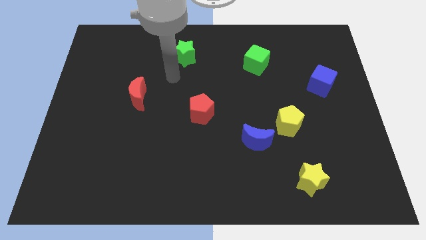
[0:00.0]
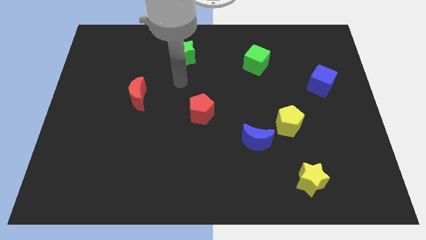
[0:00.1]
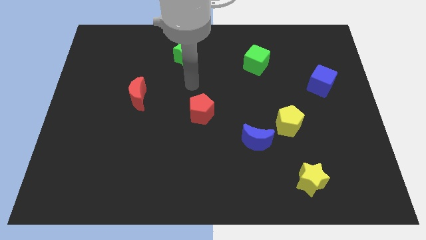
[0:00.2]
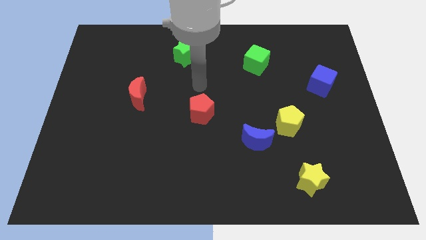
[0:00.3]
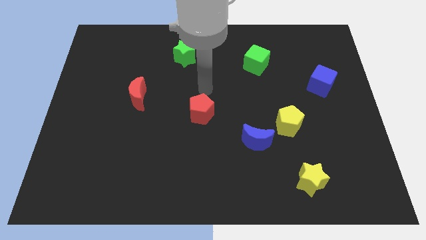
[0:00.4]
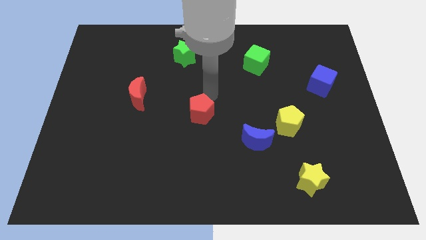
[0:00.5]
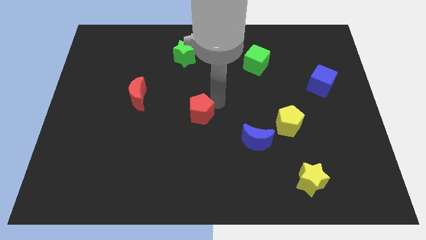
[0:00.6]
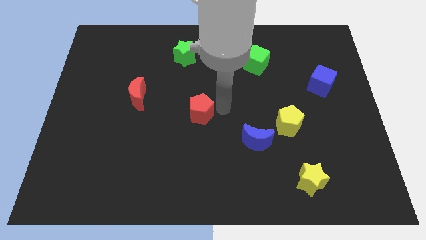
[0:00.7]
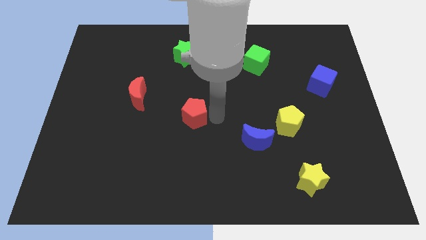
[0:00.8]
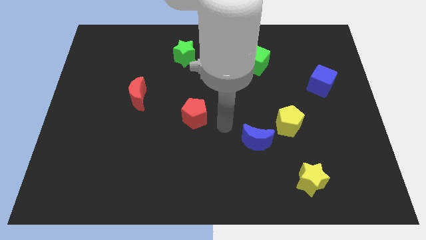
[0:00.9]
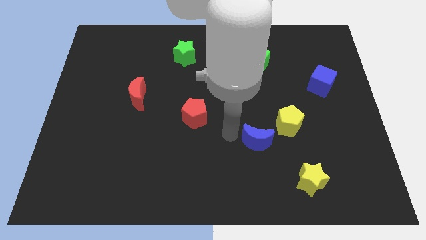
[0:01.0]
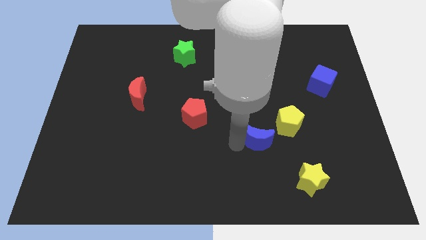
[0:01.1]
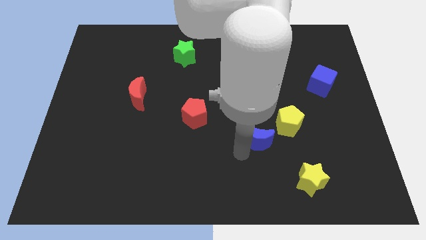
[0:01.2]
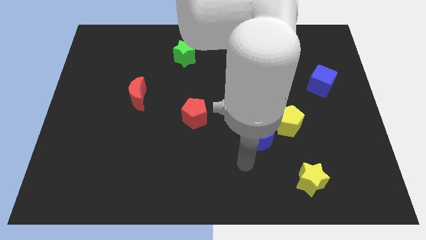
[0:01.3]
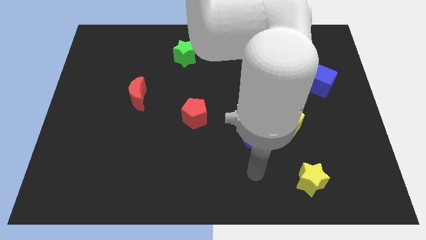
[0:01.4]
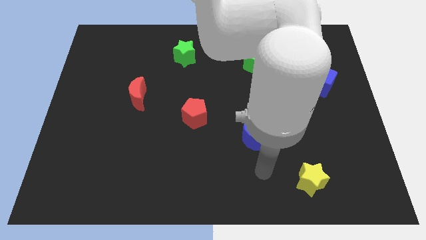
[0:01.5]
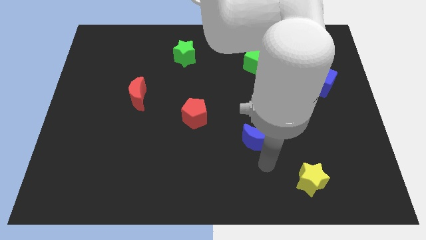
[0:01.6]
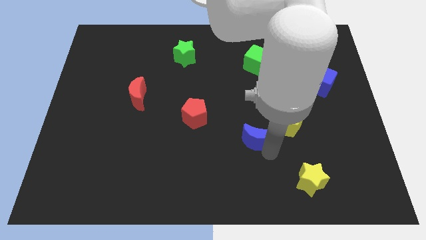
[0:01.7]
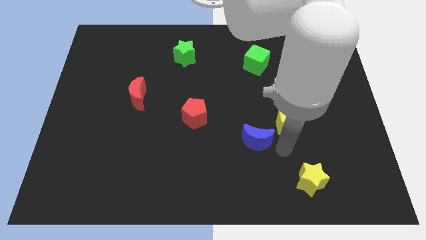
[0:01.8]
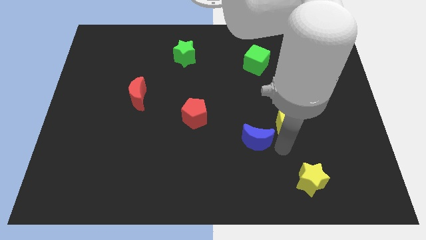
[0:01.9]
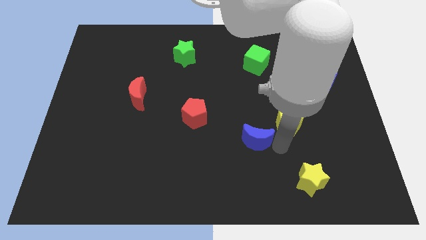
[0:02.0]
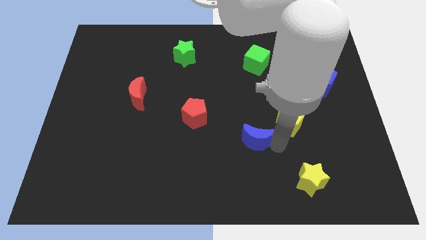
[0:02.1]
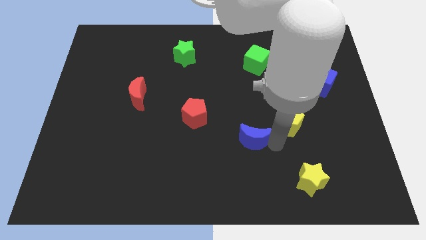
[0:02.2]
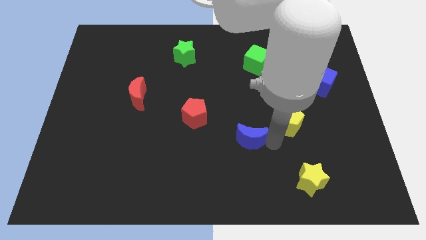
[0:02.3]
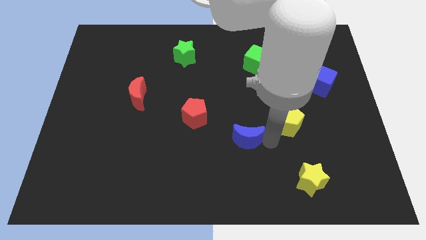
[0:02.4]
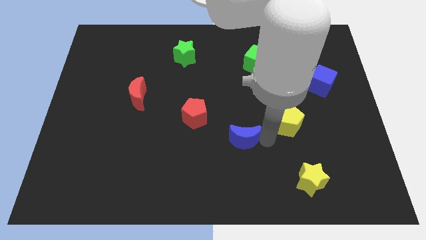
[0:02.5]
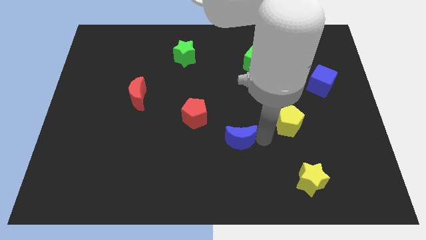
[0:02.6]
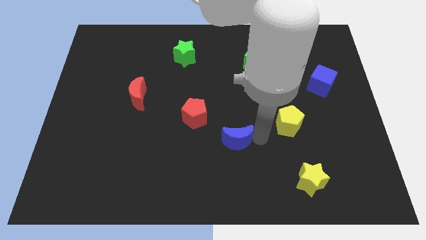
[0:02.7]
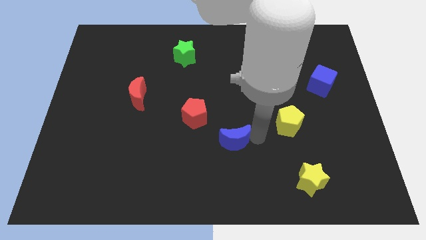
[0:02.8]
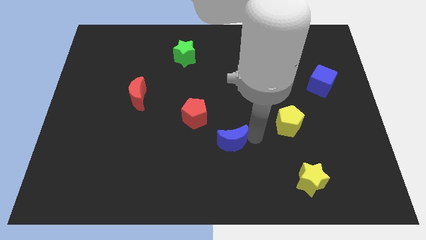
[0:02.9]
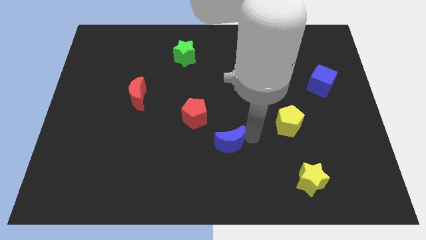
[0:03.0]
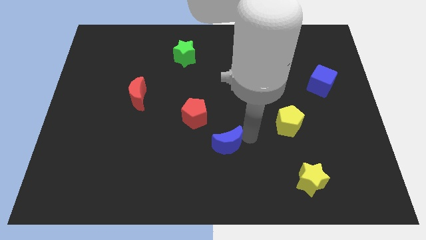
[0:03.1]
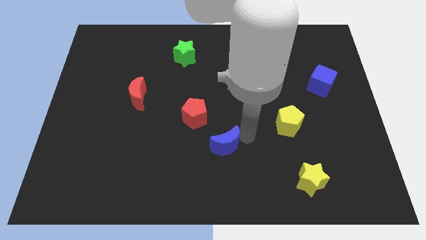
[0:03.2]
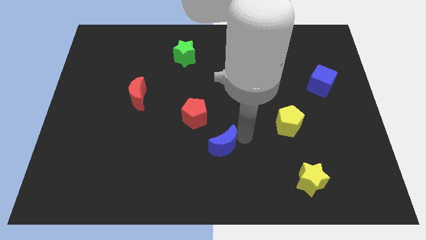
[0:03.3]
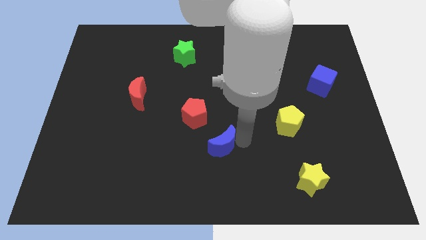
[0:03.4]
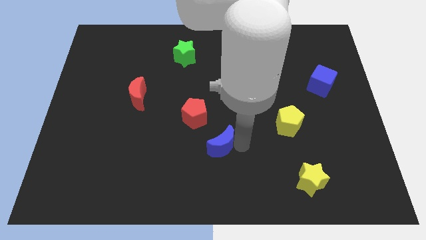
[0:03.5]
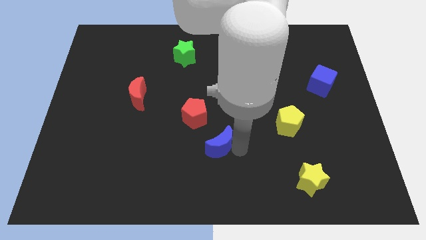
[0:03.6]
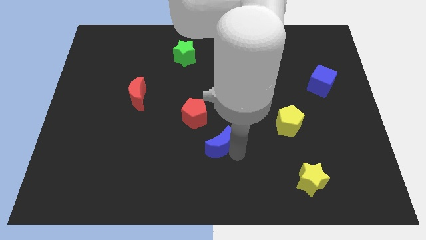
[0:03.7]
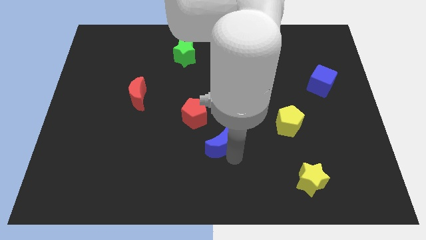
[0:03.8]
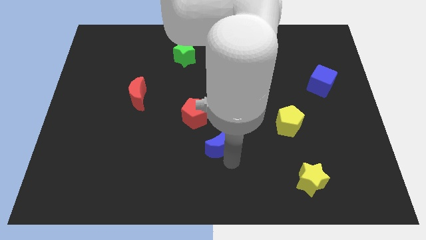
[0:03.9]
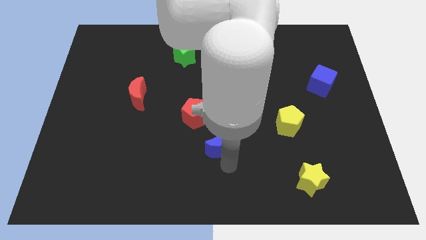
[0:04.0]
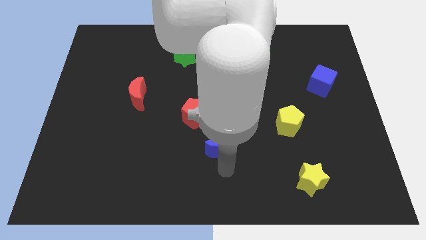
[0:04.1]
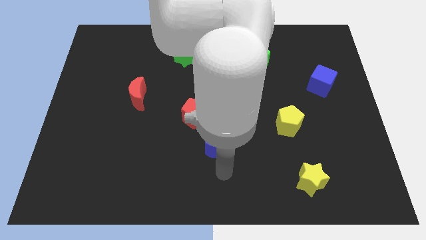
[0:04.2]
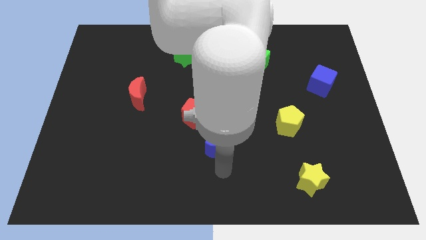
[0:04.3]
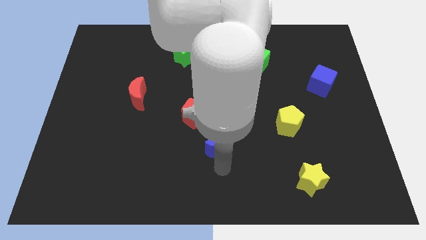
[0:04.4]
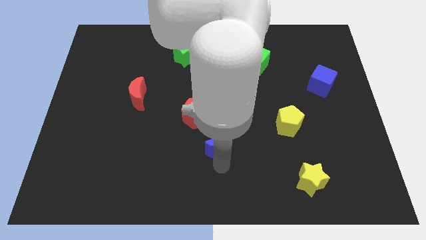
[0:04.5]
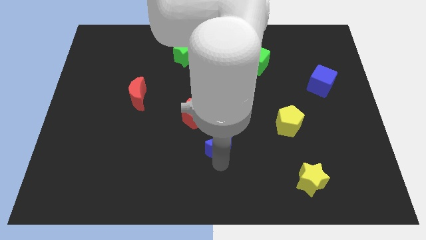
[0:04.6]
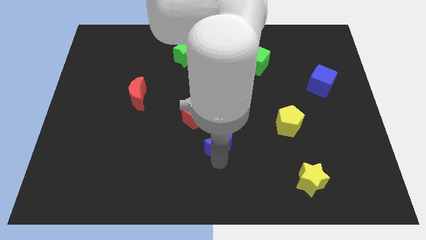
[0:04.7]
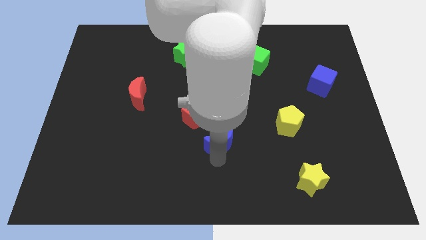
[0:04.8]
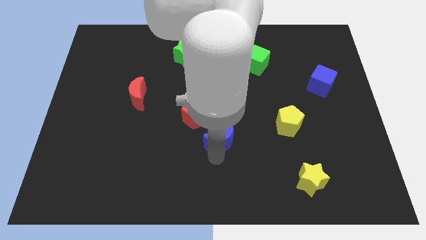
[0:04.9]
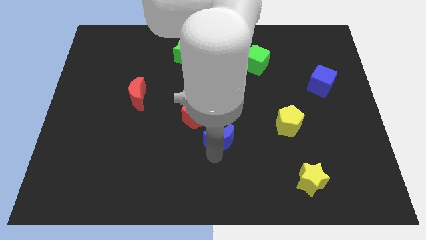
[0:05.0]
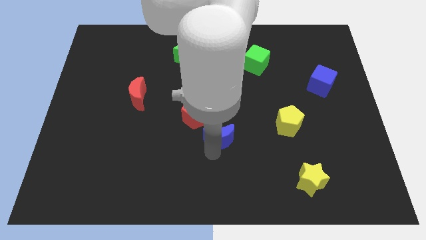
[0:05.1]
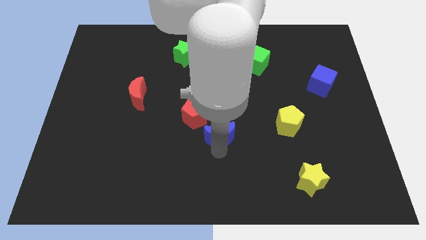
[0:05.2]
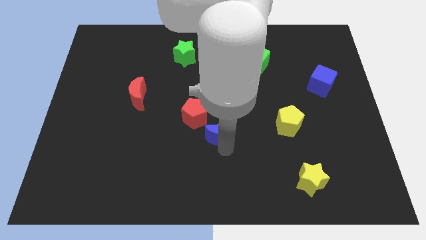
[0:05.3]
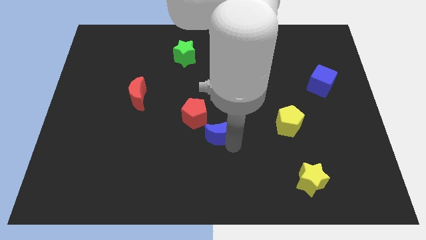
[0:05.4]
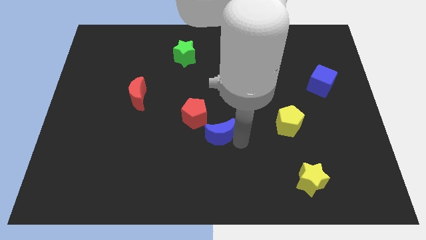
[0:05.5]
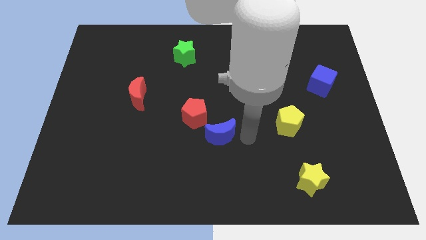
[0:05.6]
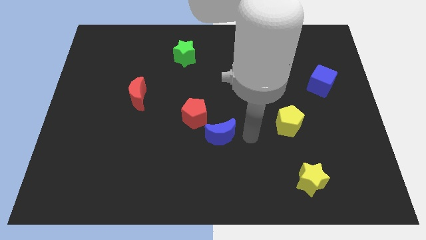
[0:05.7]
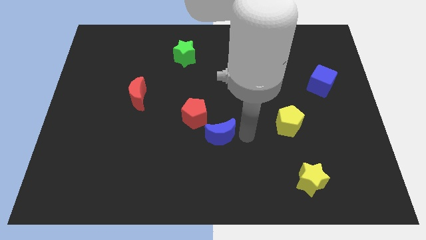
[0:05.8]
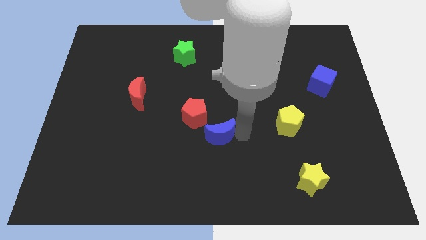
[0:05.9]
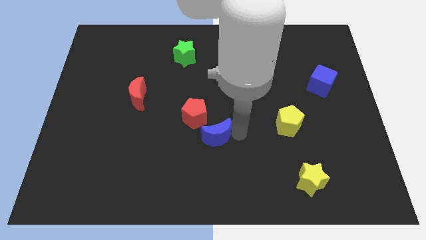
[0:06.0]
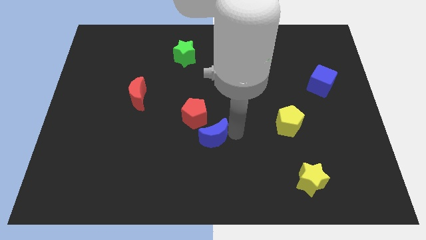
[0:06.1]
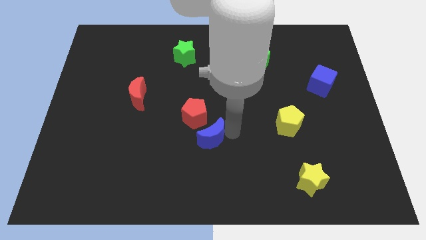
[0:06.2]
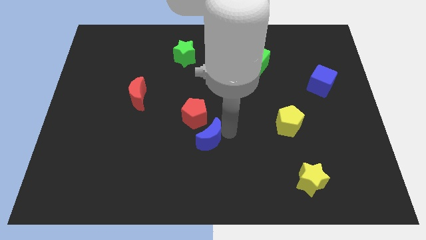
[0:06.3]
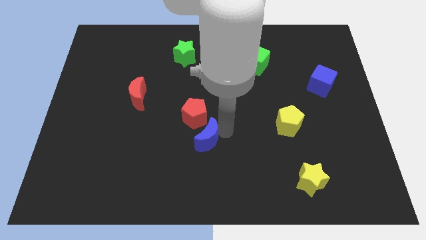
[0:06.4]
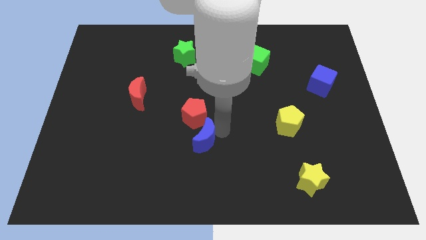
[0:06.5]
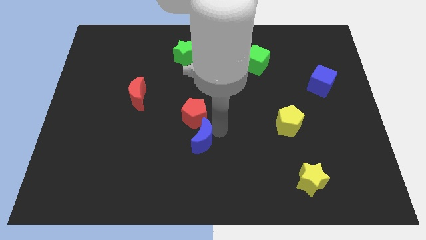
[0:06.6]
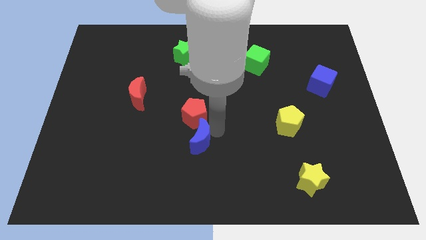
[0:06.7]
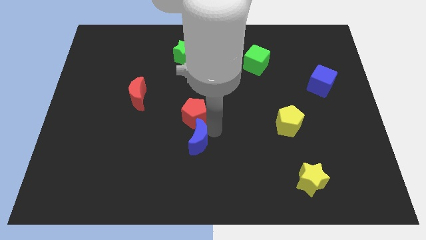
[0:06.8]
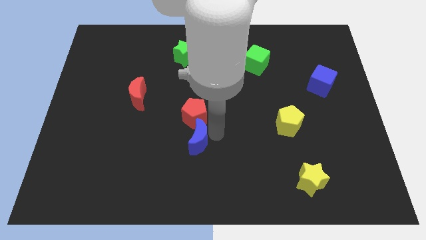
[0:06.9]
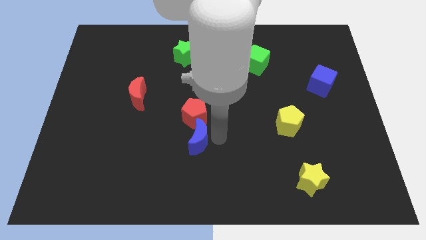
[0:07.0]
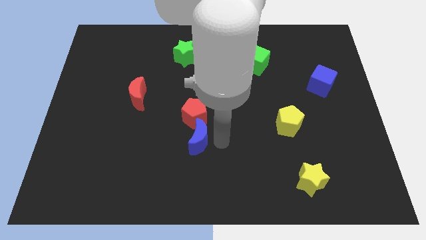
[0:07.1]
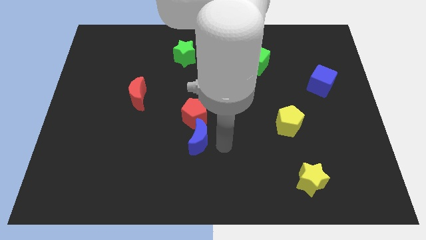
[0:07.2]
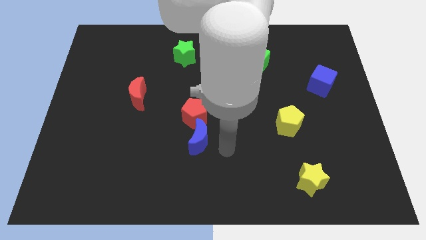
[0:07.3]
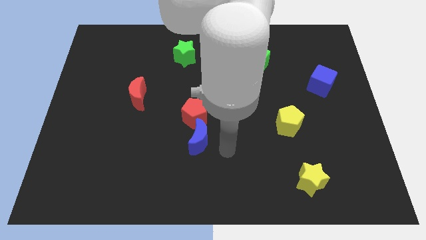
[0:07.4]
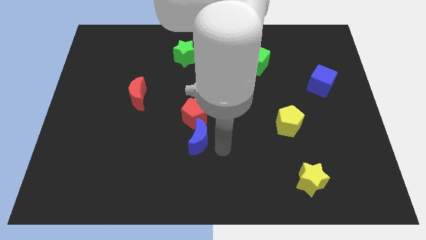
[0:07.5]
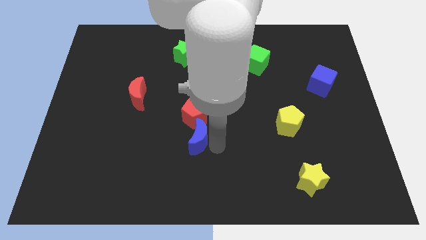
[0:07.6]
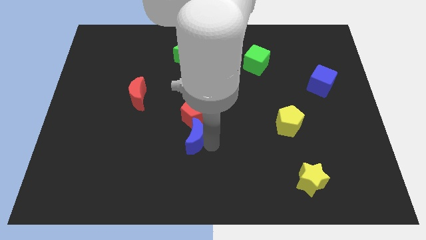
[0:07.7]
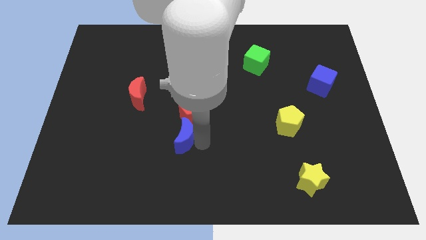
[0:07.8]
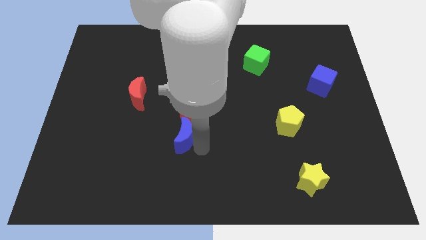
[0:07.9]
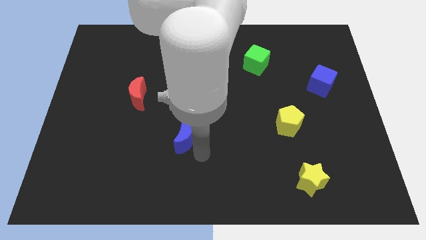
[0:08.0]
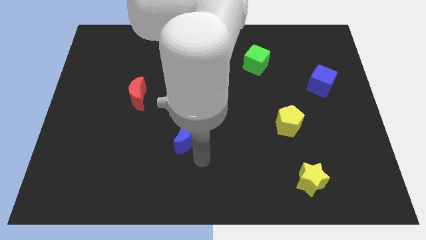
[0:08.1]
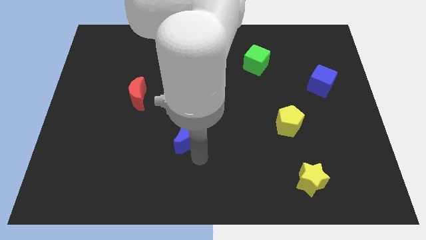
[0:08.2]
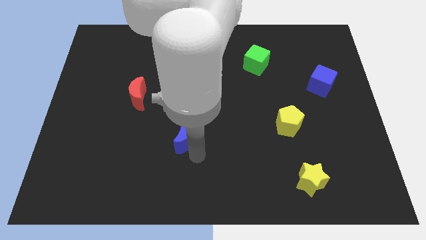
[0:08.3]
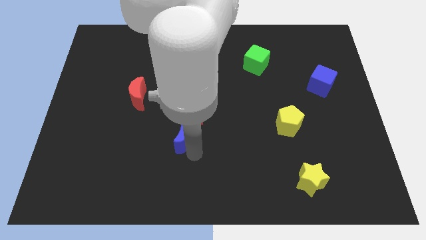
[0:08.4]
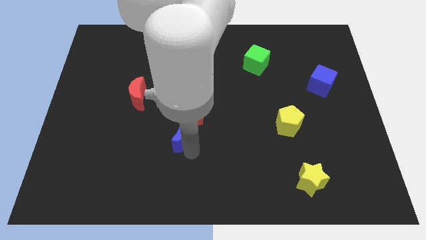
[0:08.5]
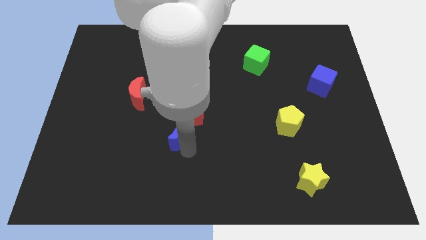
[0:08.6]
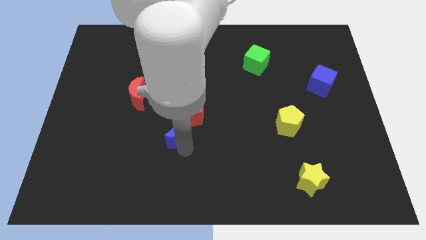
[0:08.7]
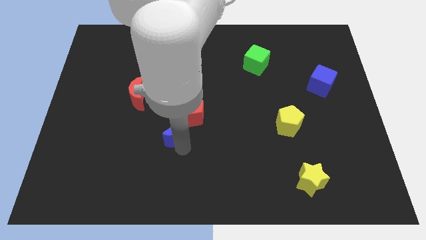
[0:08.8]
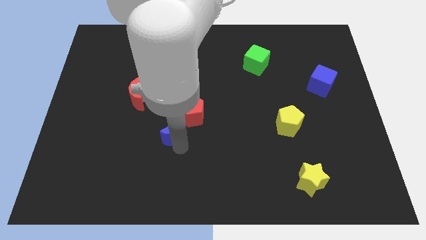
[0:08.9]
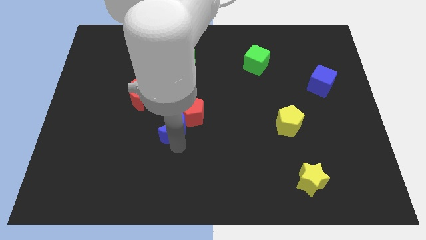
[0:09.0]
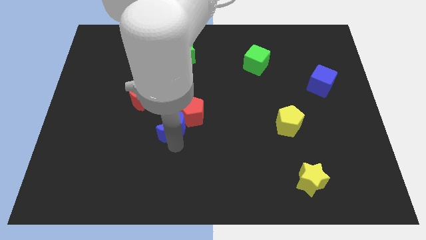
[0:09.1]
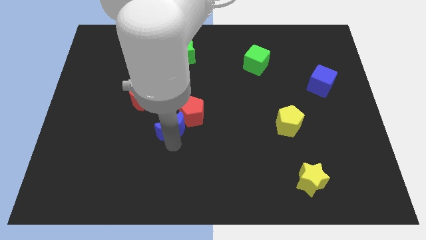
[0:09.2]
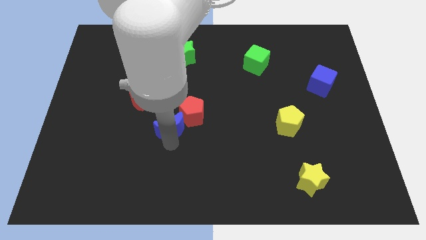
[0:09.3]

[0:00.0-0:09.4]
move the blue moon to the bottom right of the red moon
